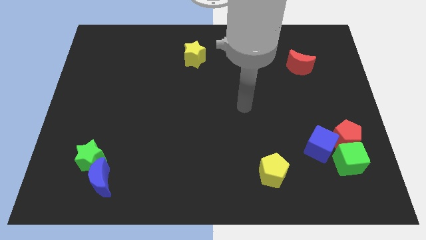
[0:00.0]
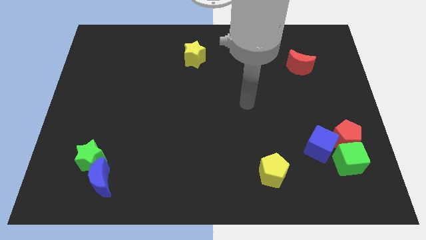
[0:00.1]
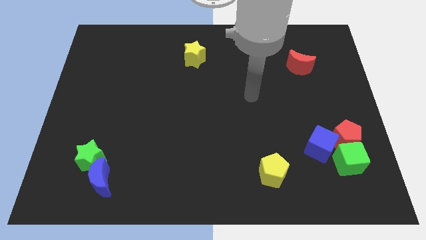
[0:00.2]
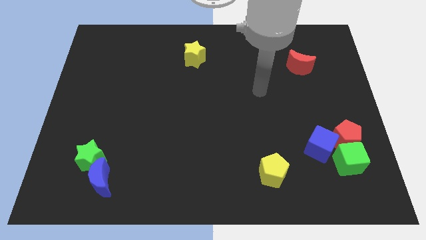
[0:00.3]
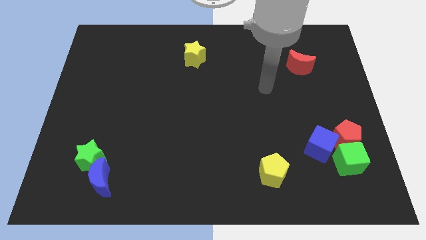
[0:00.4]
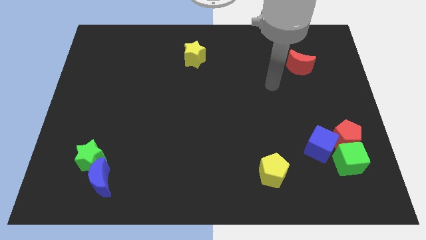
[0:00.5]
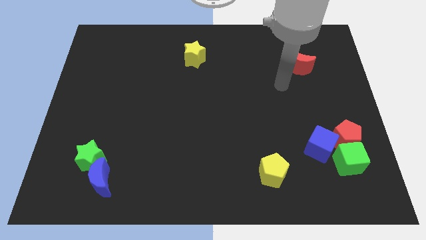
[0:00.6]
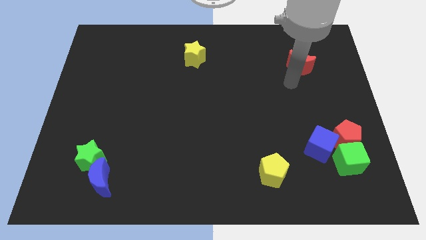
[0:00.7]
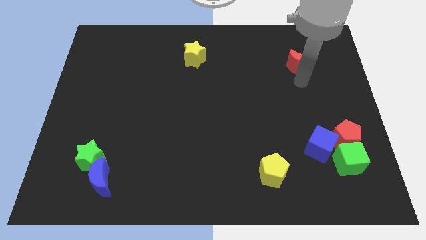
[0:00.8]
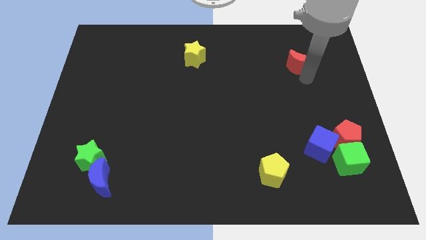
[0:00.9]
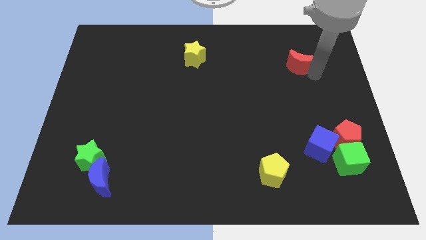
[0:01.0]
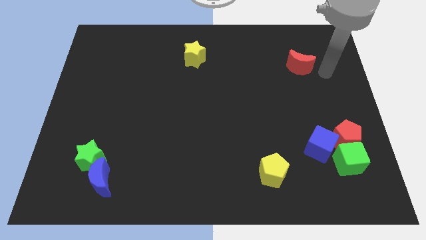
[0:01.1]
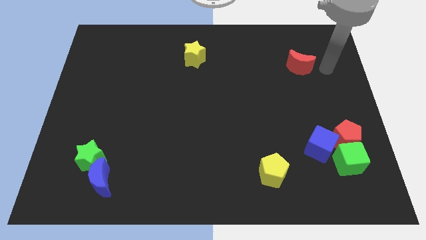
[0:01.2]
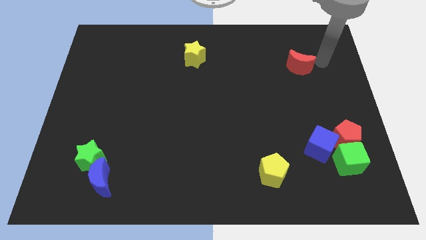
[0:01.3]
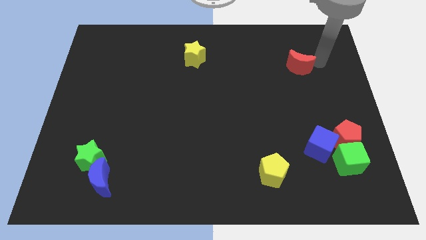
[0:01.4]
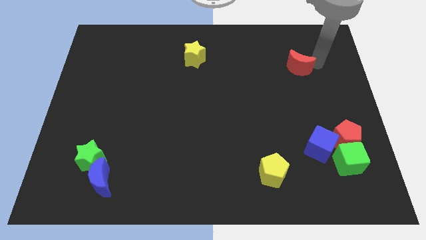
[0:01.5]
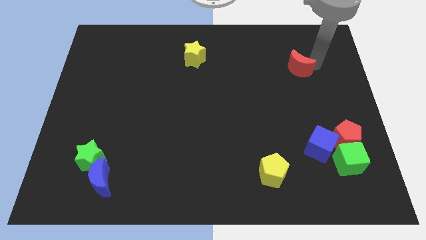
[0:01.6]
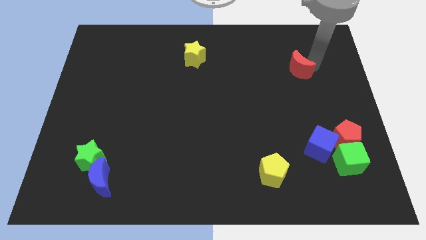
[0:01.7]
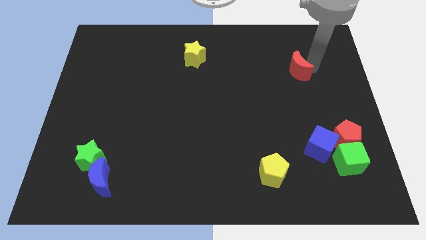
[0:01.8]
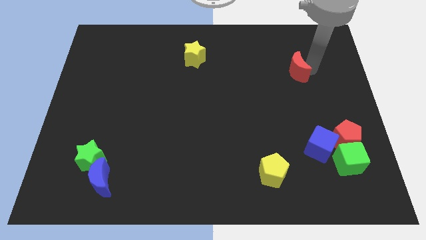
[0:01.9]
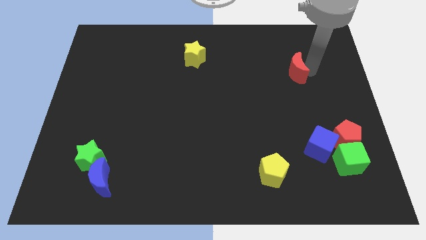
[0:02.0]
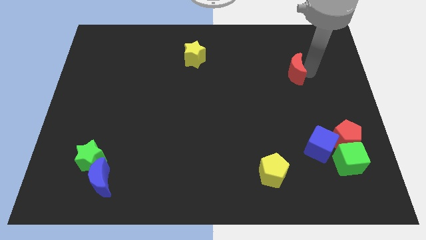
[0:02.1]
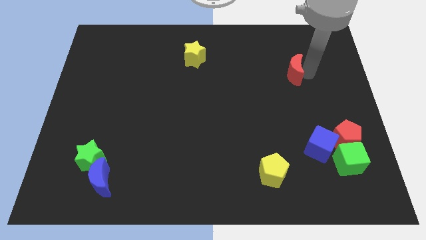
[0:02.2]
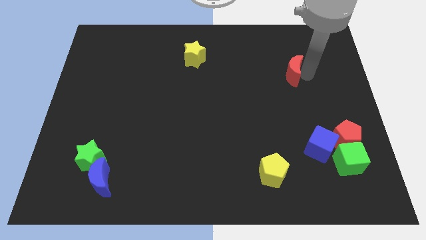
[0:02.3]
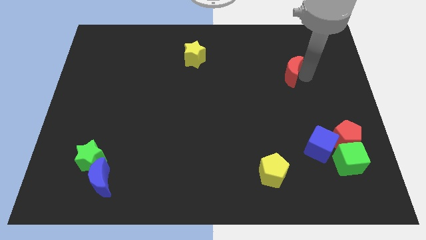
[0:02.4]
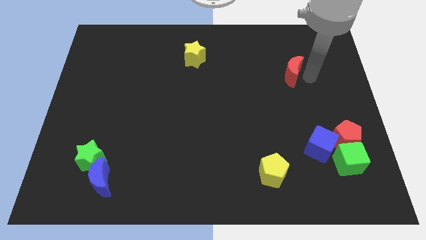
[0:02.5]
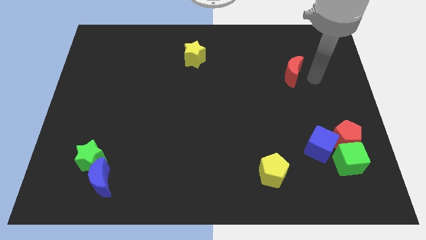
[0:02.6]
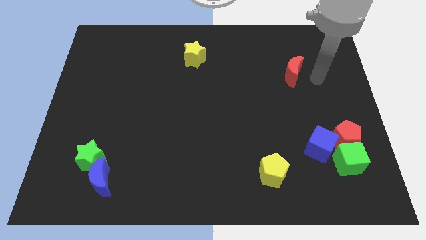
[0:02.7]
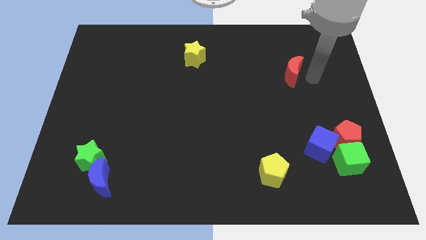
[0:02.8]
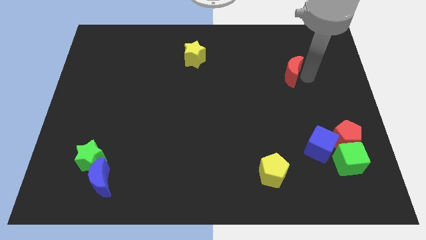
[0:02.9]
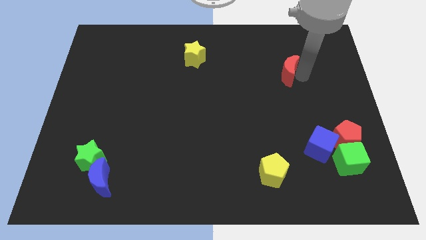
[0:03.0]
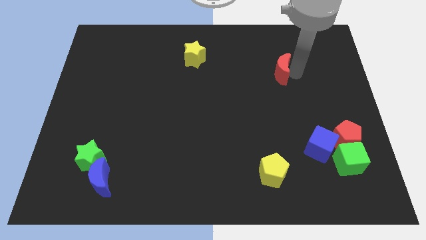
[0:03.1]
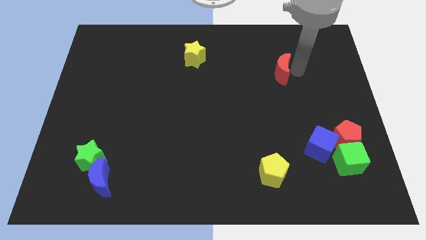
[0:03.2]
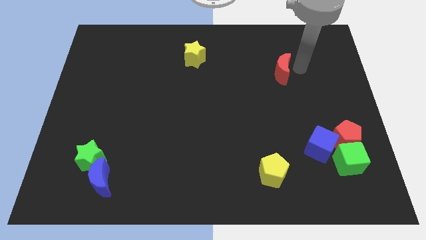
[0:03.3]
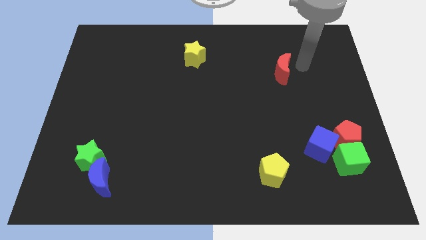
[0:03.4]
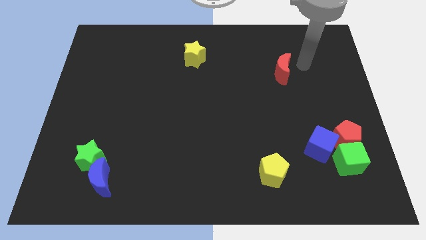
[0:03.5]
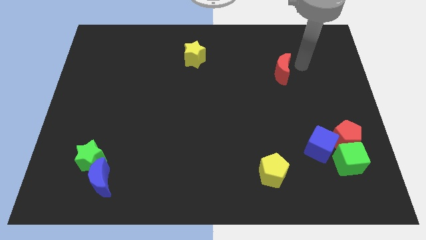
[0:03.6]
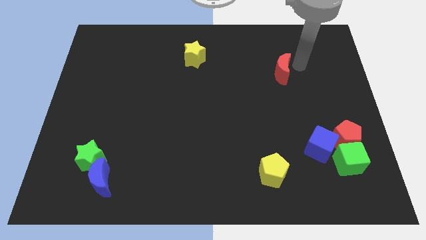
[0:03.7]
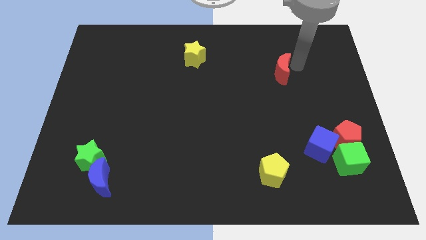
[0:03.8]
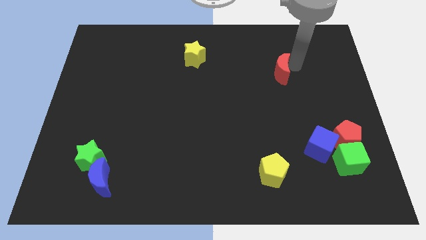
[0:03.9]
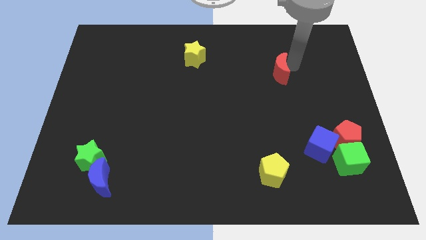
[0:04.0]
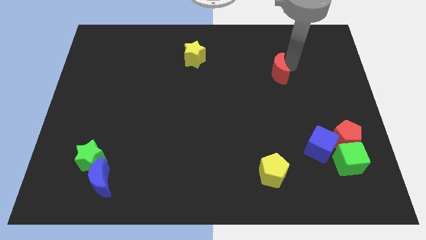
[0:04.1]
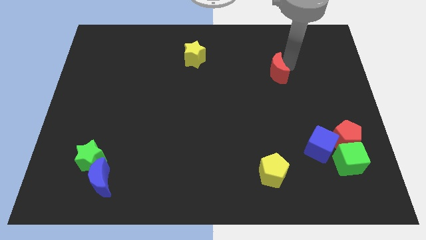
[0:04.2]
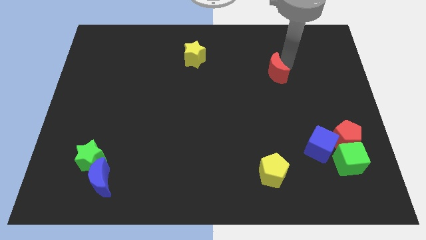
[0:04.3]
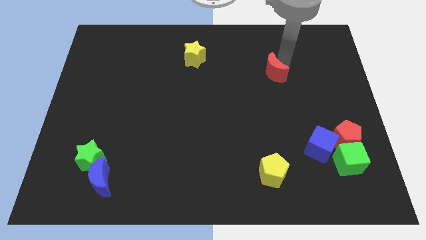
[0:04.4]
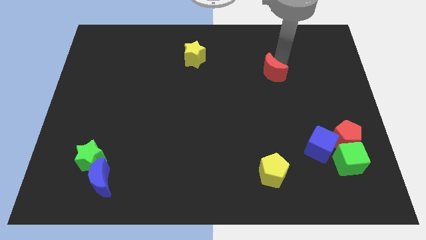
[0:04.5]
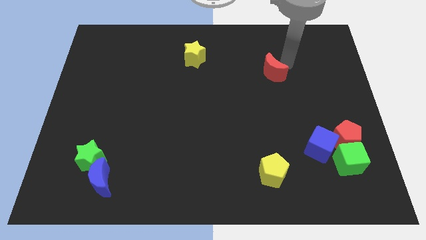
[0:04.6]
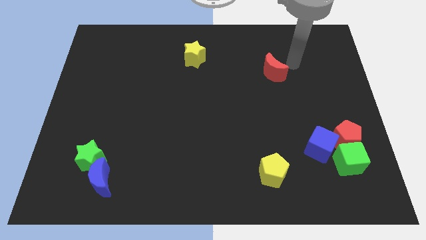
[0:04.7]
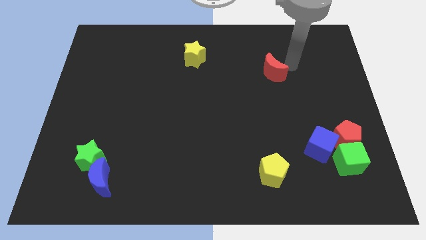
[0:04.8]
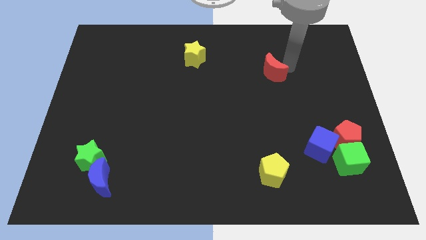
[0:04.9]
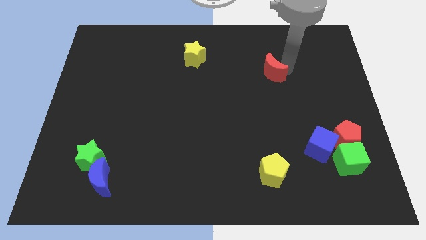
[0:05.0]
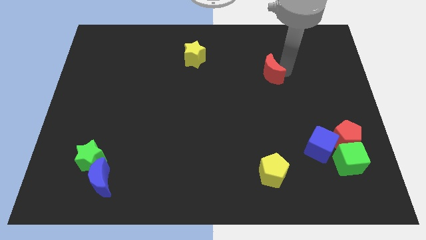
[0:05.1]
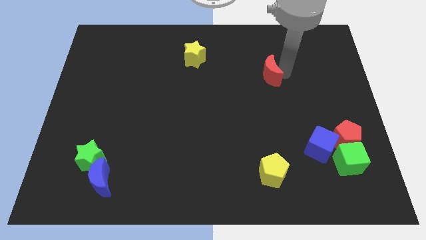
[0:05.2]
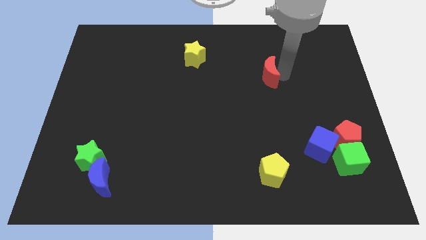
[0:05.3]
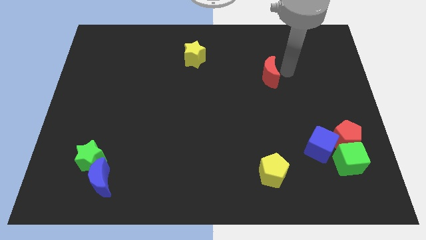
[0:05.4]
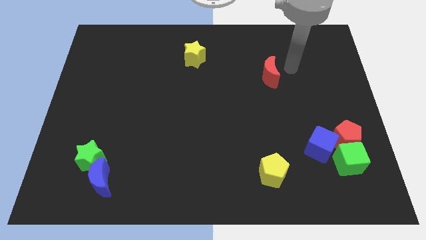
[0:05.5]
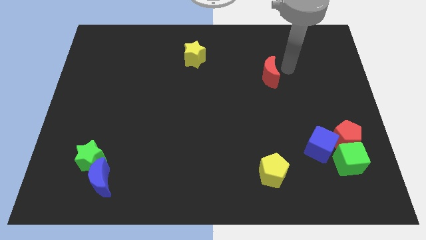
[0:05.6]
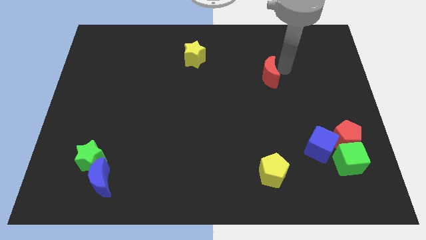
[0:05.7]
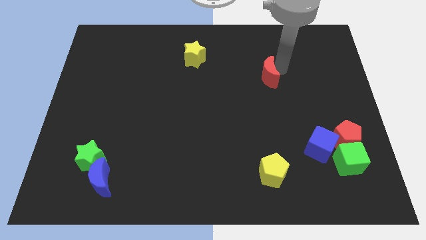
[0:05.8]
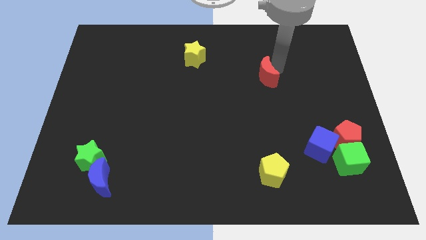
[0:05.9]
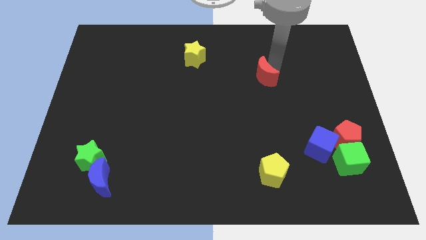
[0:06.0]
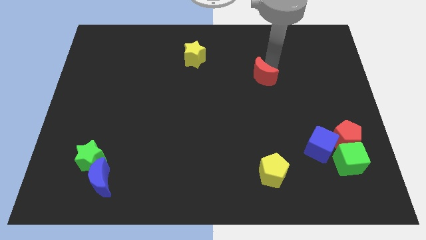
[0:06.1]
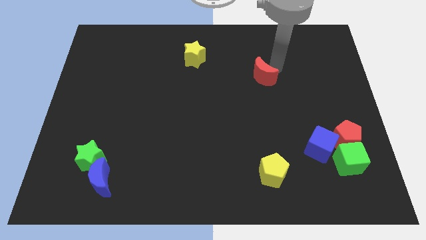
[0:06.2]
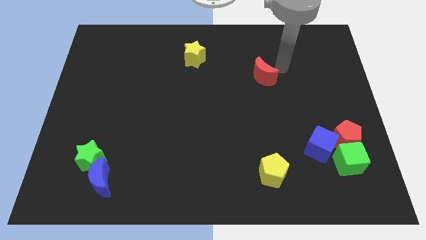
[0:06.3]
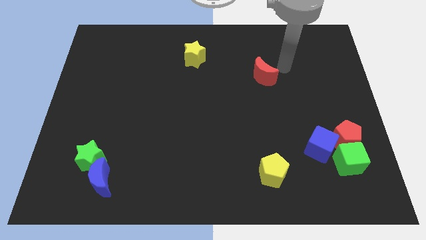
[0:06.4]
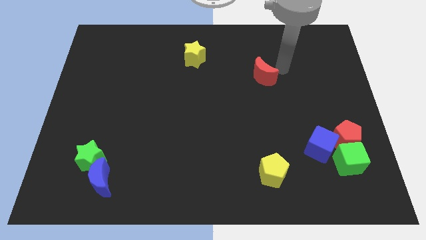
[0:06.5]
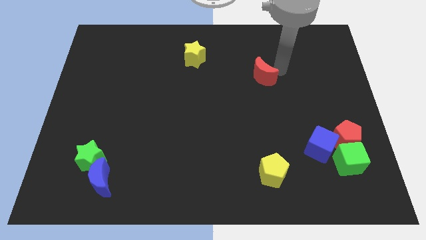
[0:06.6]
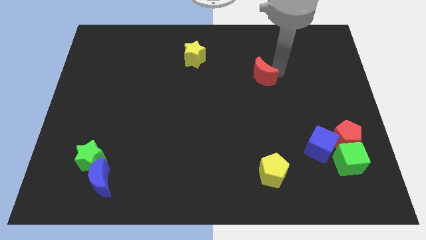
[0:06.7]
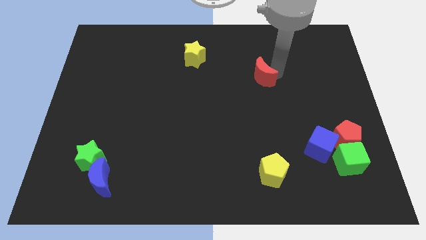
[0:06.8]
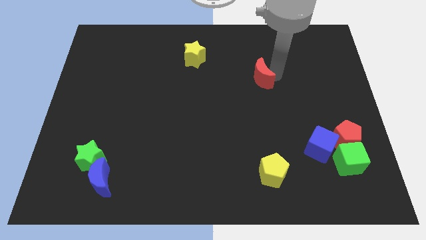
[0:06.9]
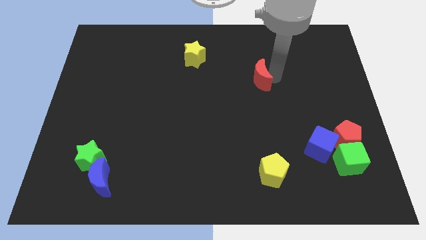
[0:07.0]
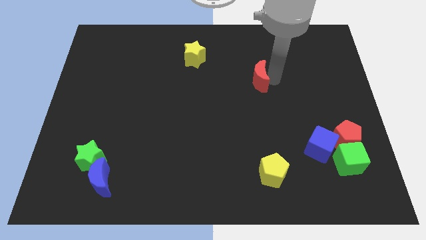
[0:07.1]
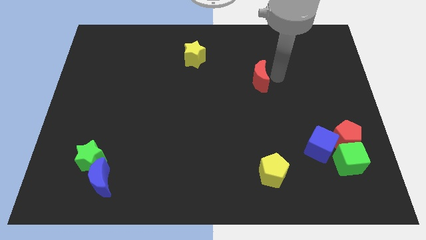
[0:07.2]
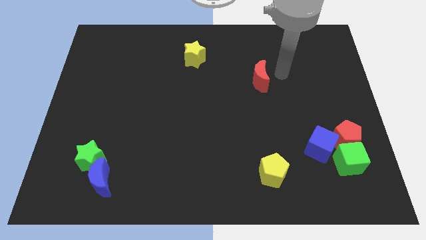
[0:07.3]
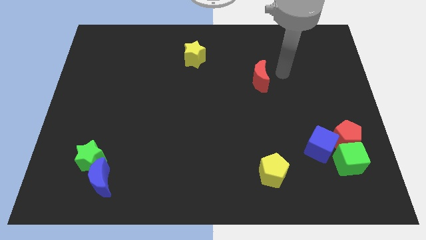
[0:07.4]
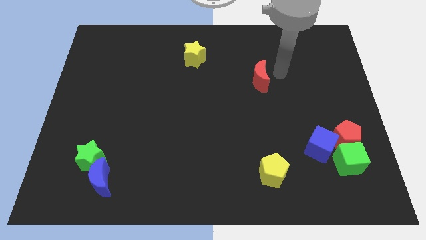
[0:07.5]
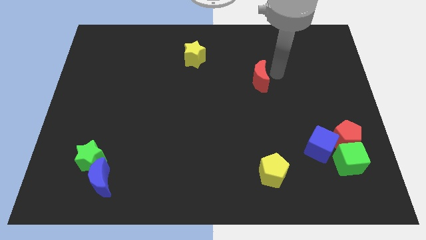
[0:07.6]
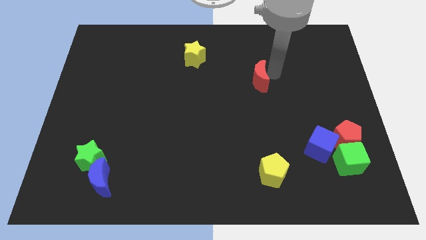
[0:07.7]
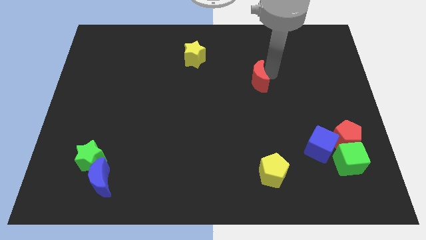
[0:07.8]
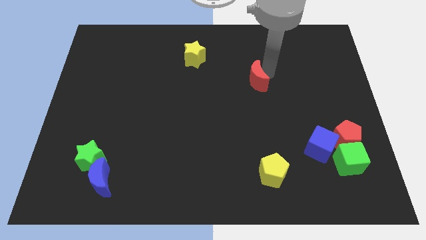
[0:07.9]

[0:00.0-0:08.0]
push the red moon to the middle of the board
